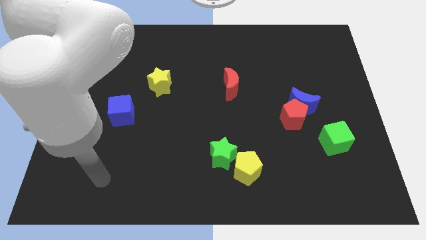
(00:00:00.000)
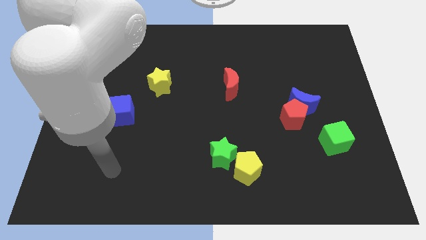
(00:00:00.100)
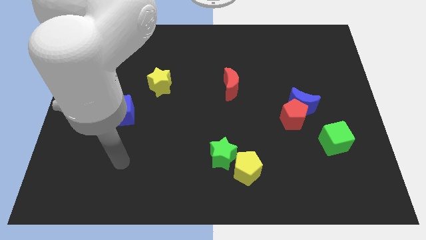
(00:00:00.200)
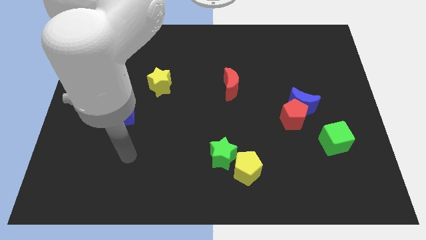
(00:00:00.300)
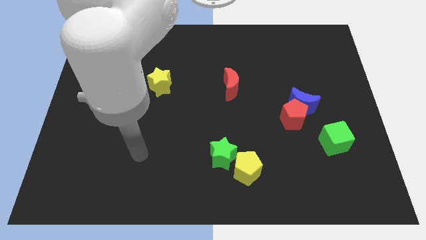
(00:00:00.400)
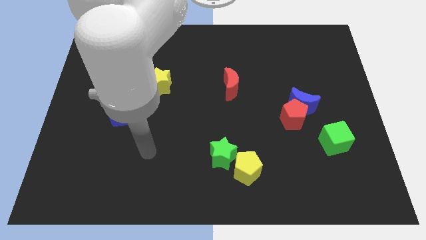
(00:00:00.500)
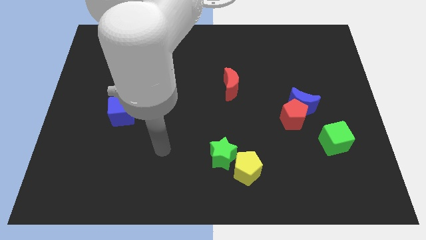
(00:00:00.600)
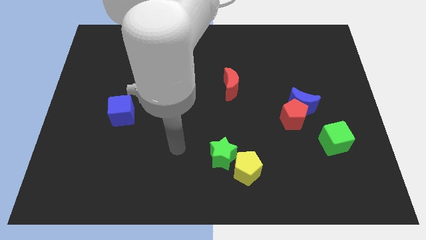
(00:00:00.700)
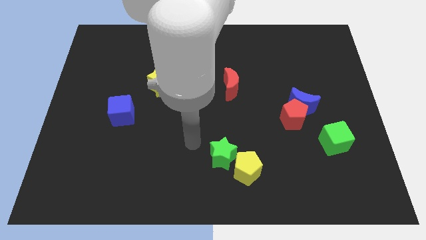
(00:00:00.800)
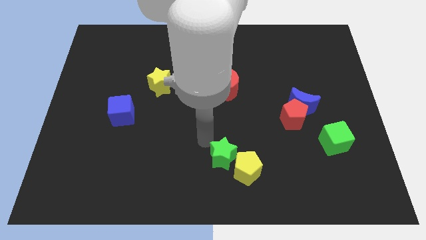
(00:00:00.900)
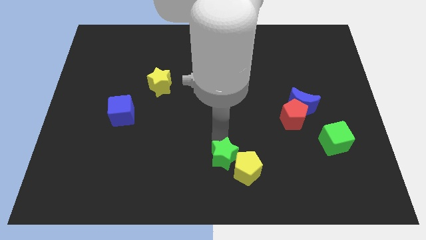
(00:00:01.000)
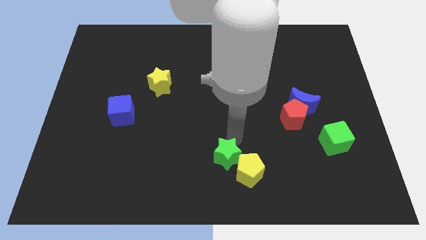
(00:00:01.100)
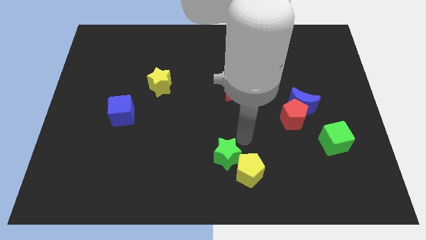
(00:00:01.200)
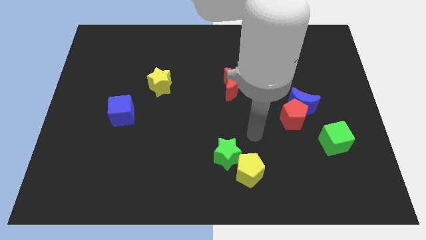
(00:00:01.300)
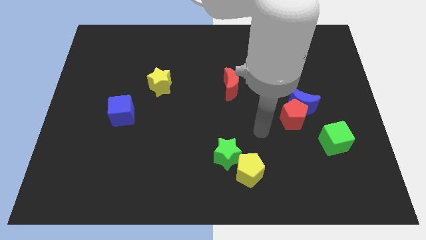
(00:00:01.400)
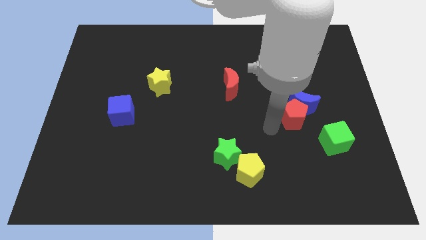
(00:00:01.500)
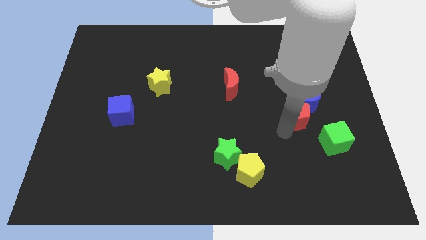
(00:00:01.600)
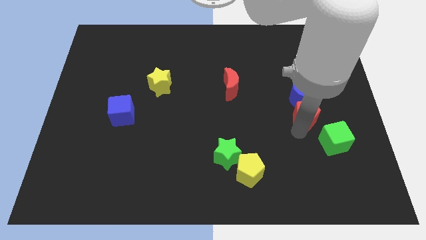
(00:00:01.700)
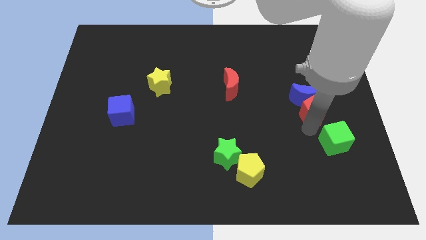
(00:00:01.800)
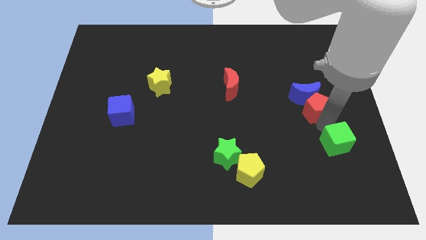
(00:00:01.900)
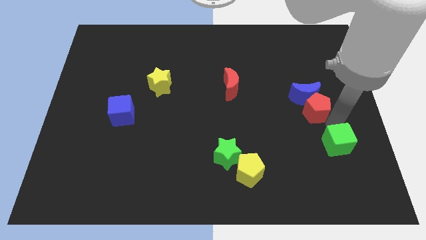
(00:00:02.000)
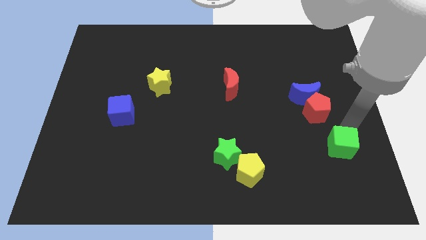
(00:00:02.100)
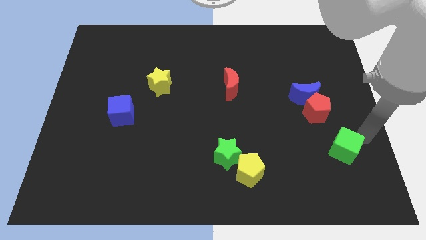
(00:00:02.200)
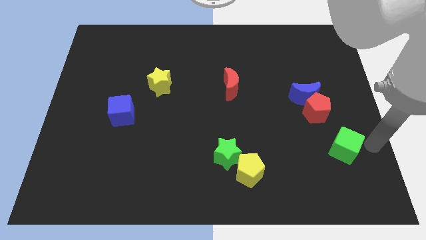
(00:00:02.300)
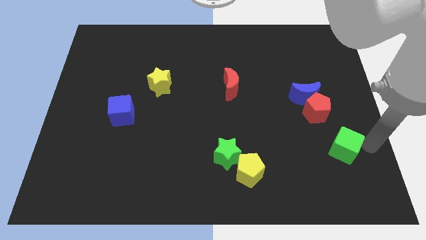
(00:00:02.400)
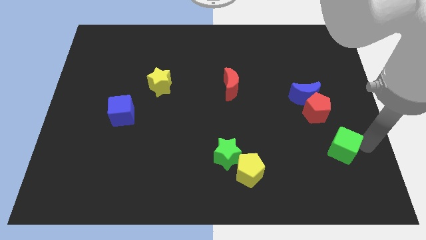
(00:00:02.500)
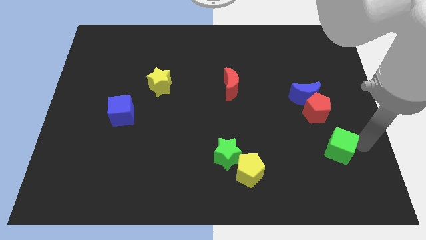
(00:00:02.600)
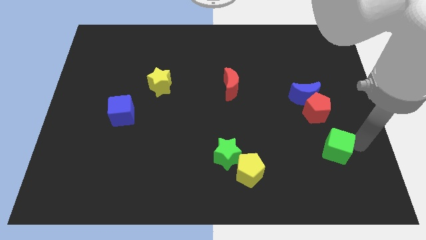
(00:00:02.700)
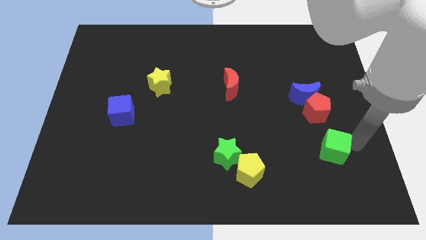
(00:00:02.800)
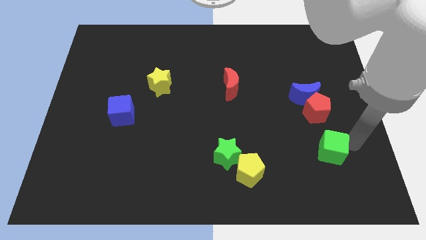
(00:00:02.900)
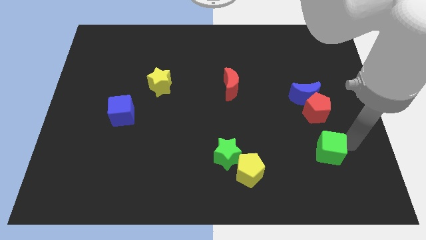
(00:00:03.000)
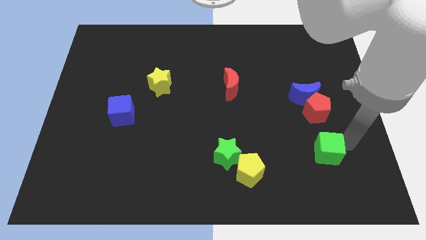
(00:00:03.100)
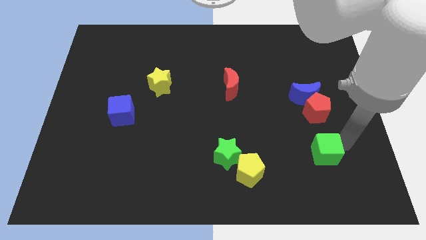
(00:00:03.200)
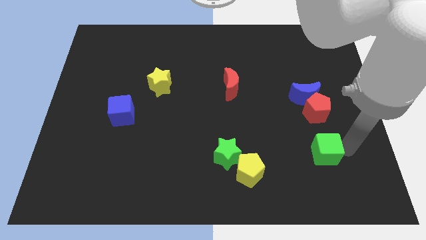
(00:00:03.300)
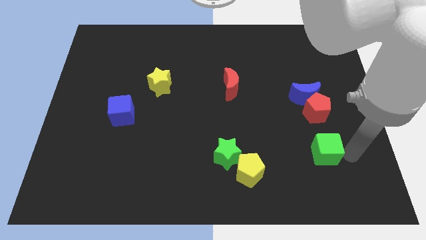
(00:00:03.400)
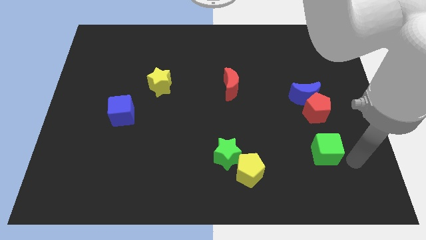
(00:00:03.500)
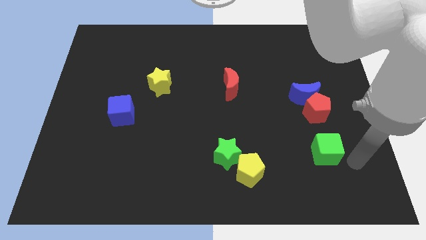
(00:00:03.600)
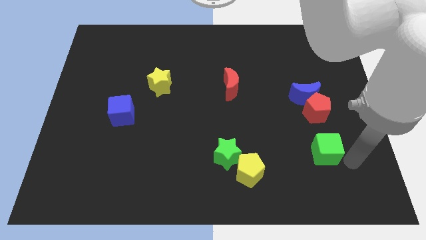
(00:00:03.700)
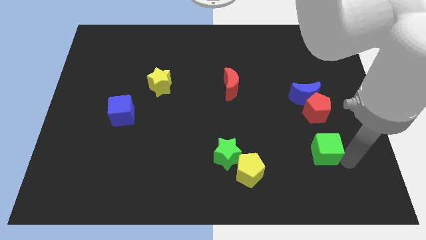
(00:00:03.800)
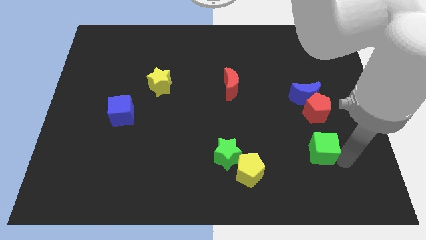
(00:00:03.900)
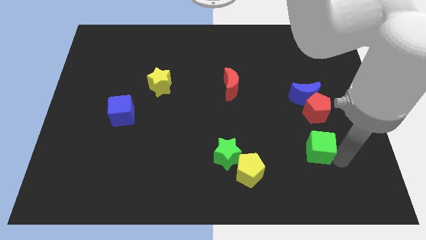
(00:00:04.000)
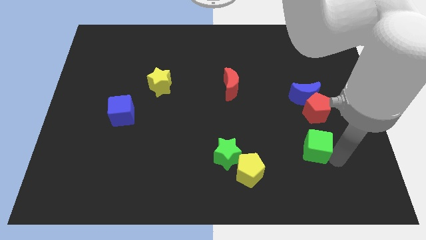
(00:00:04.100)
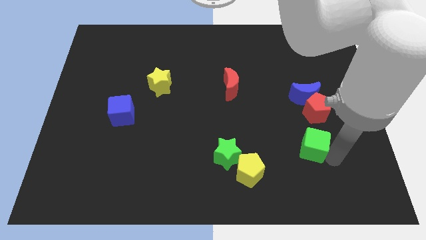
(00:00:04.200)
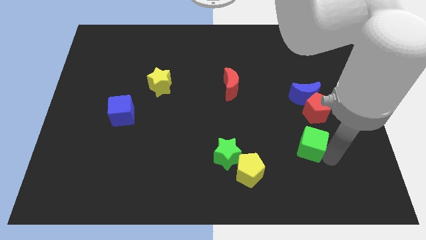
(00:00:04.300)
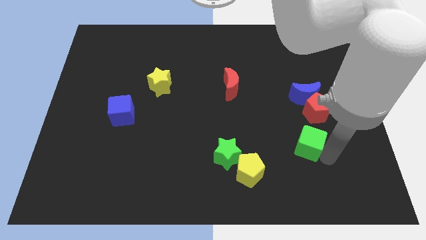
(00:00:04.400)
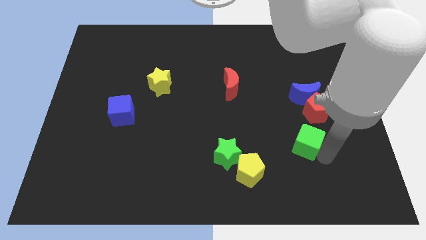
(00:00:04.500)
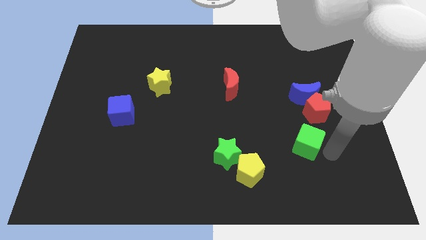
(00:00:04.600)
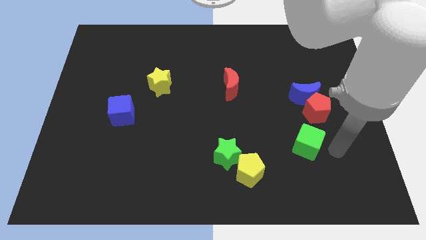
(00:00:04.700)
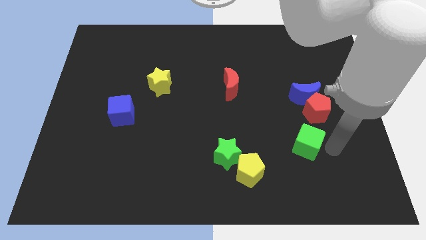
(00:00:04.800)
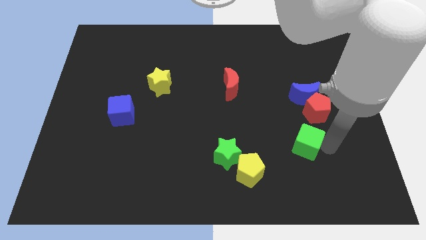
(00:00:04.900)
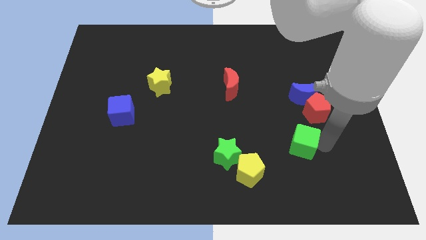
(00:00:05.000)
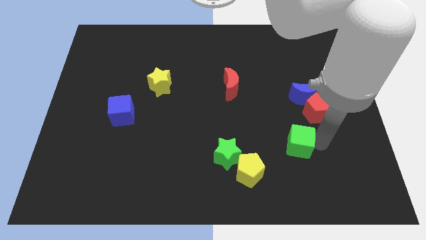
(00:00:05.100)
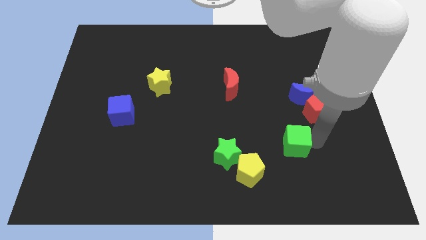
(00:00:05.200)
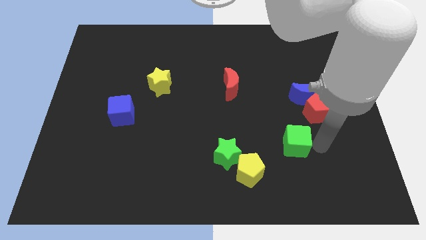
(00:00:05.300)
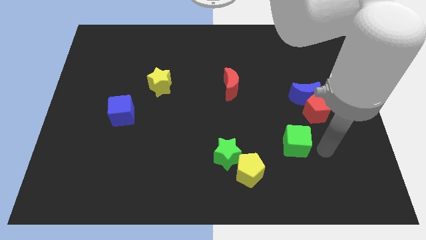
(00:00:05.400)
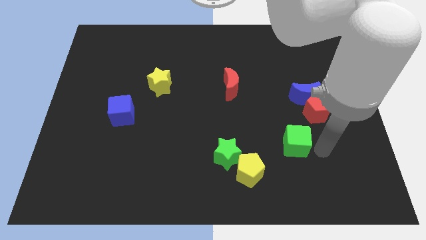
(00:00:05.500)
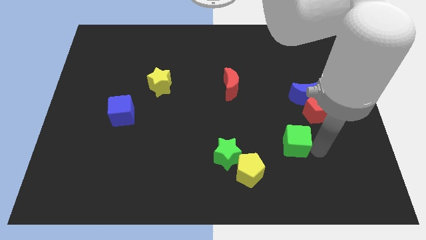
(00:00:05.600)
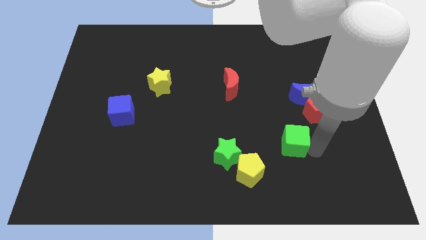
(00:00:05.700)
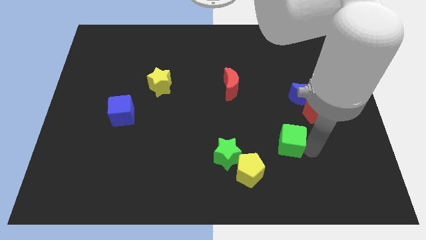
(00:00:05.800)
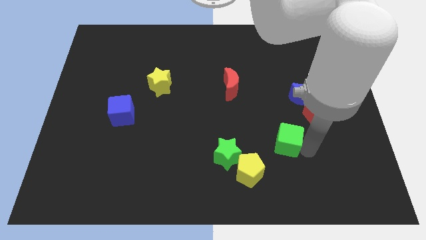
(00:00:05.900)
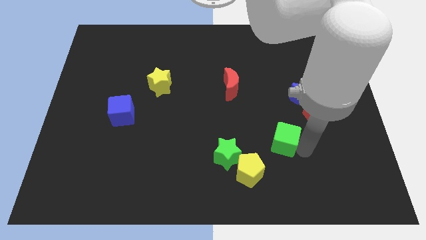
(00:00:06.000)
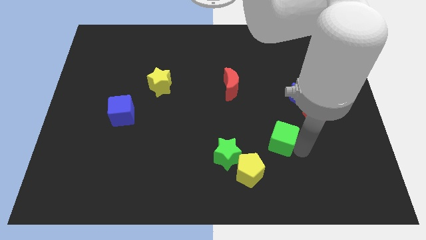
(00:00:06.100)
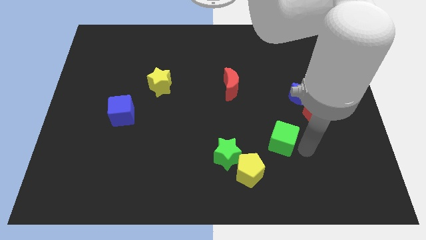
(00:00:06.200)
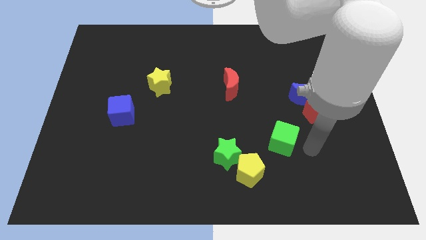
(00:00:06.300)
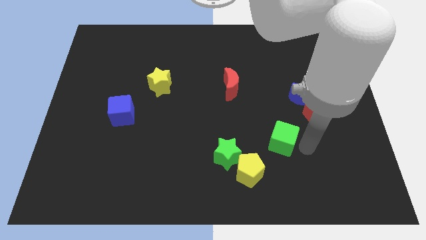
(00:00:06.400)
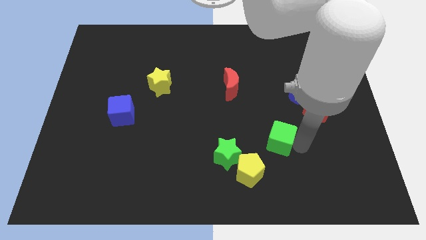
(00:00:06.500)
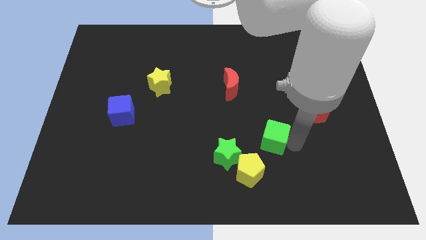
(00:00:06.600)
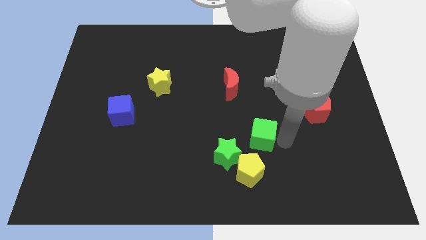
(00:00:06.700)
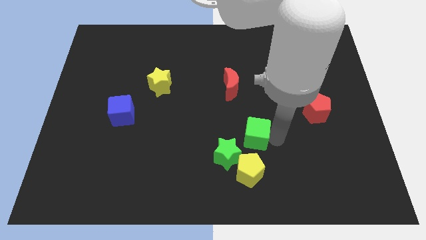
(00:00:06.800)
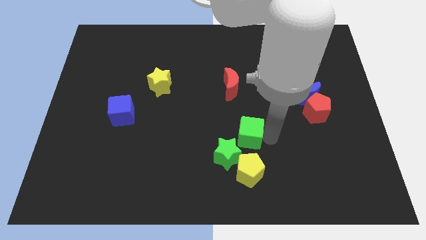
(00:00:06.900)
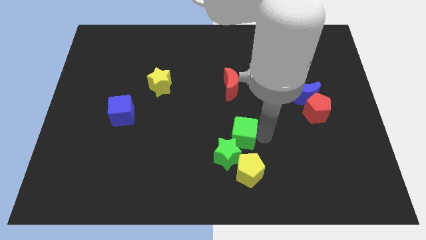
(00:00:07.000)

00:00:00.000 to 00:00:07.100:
push the green cube left

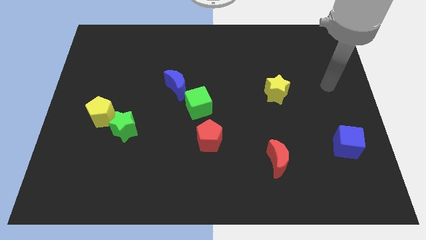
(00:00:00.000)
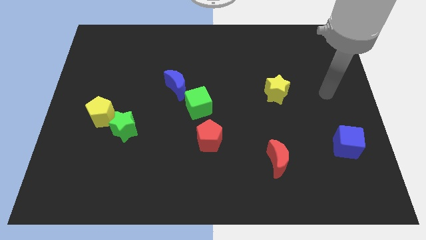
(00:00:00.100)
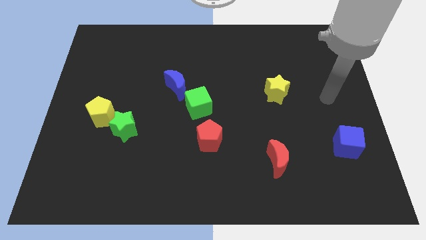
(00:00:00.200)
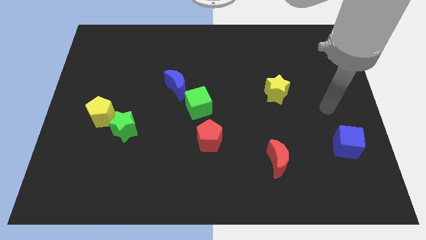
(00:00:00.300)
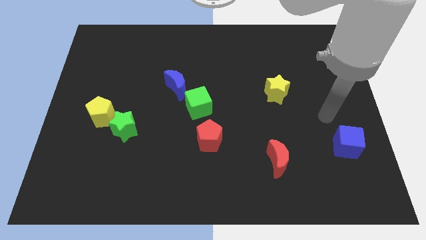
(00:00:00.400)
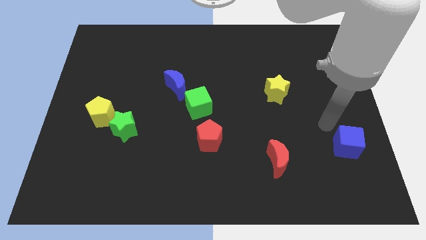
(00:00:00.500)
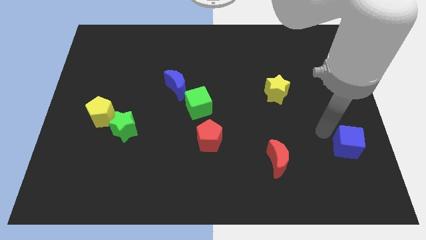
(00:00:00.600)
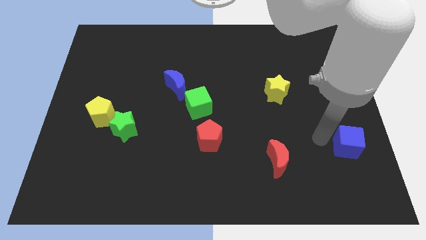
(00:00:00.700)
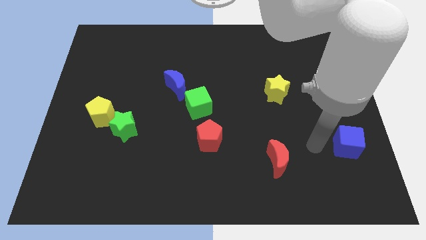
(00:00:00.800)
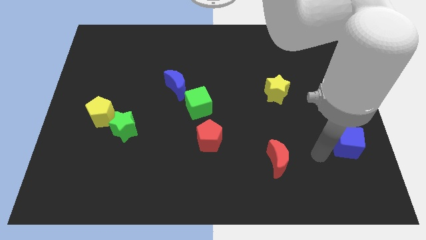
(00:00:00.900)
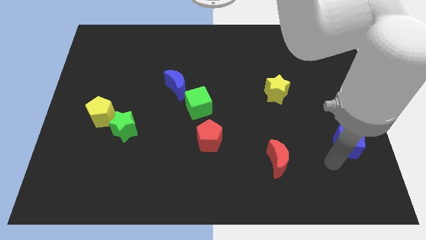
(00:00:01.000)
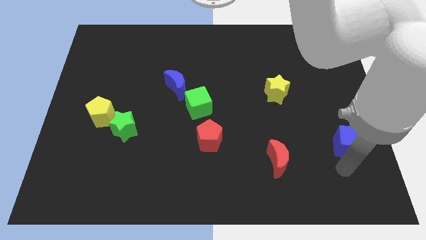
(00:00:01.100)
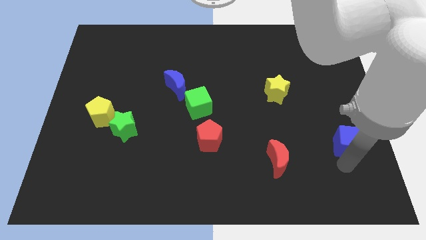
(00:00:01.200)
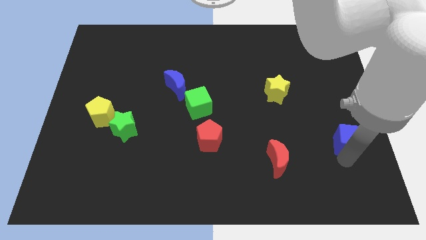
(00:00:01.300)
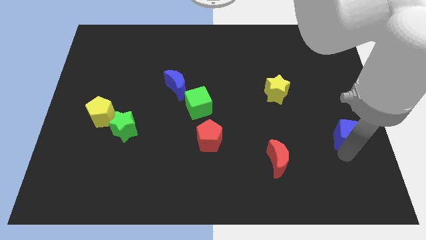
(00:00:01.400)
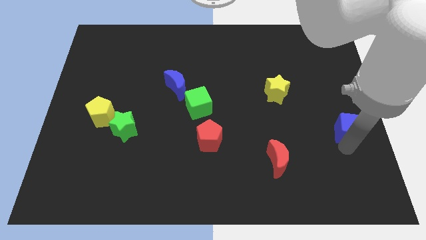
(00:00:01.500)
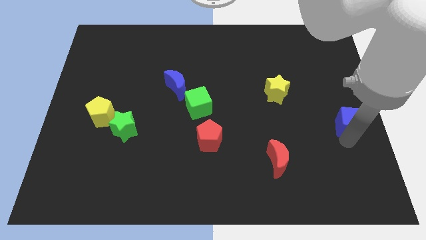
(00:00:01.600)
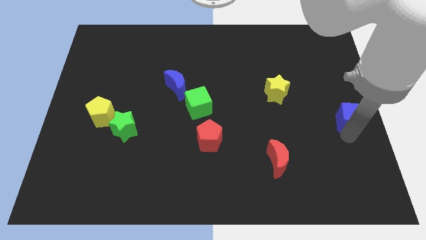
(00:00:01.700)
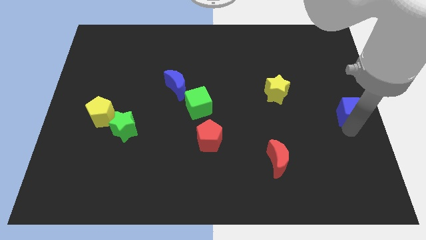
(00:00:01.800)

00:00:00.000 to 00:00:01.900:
slightly push the blue cube up
